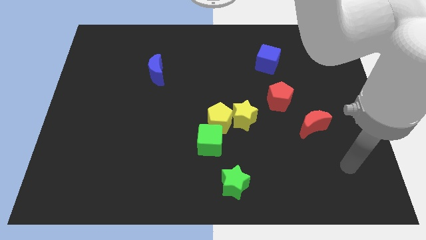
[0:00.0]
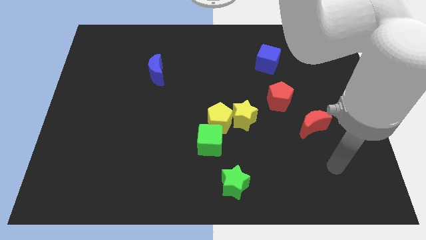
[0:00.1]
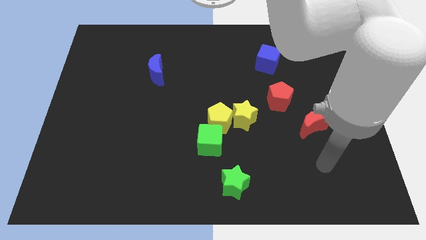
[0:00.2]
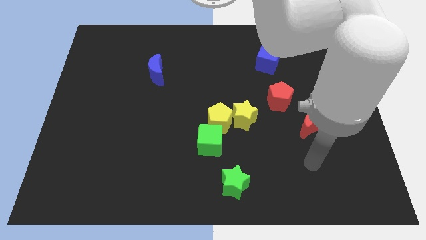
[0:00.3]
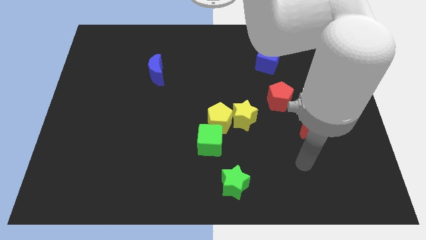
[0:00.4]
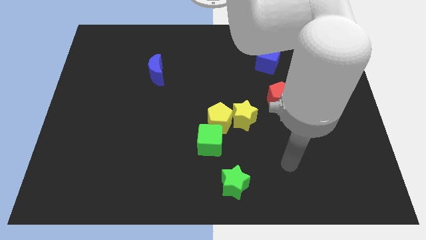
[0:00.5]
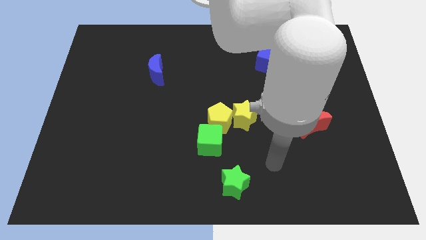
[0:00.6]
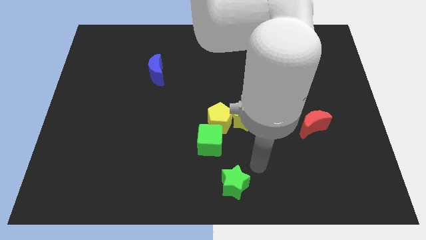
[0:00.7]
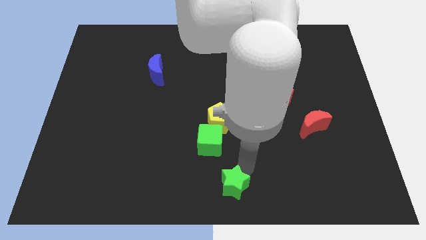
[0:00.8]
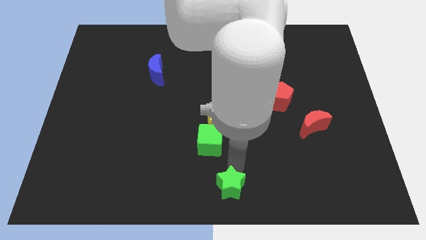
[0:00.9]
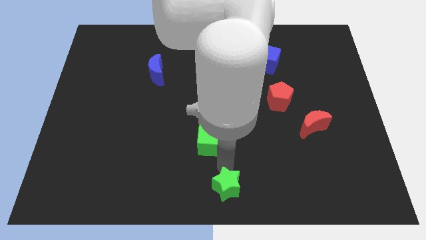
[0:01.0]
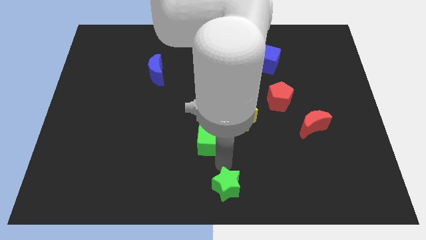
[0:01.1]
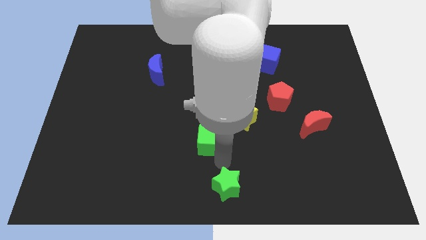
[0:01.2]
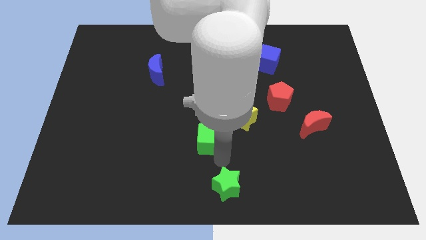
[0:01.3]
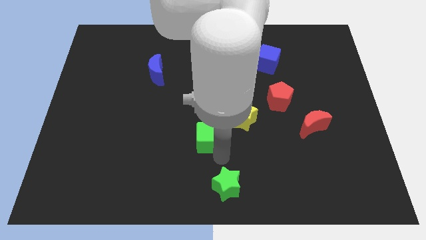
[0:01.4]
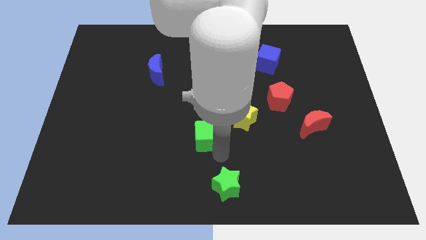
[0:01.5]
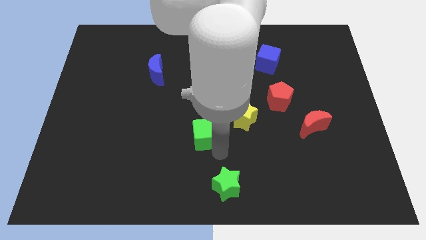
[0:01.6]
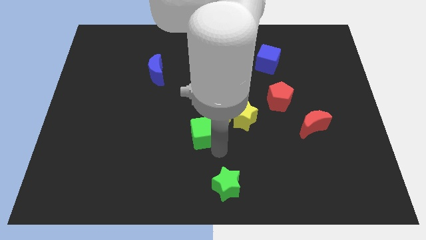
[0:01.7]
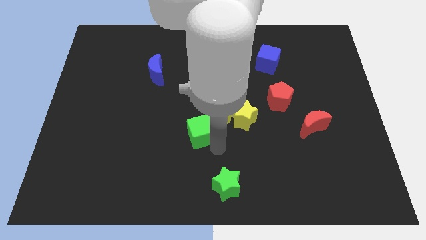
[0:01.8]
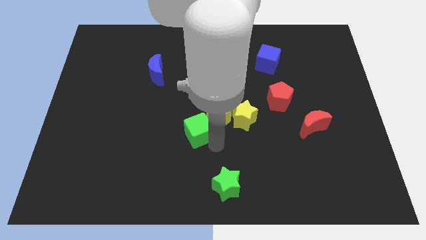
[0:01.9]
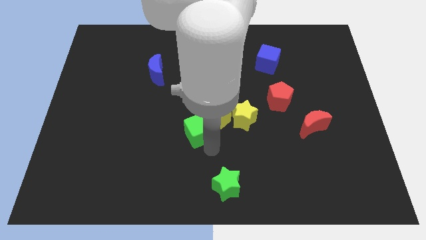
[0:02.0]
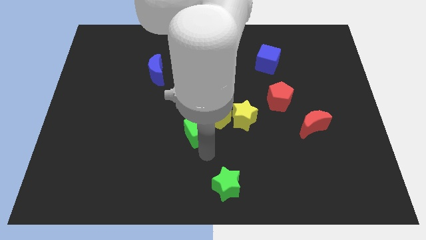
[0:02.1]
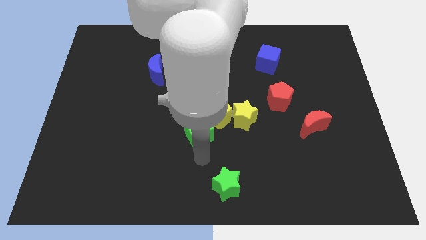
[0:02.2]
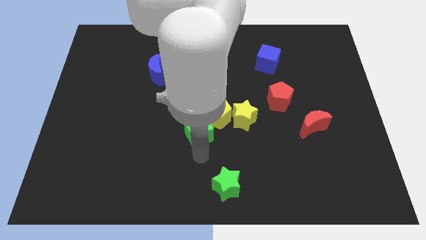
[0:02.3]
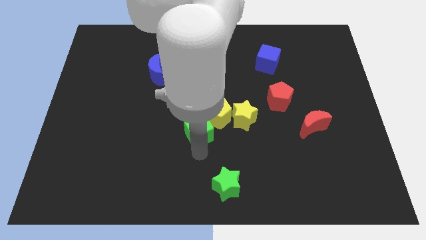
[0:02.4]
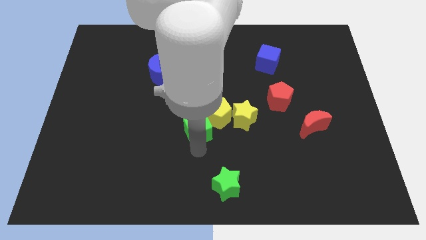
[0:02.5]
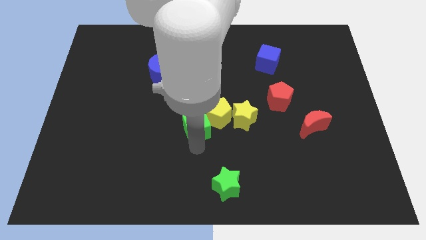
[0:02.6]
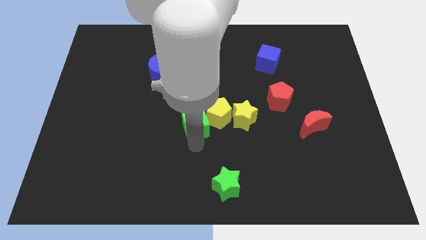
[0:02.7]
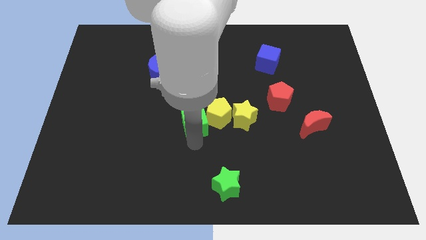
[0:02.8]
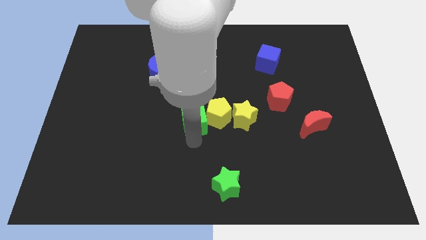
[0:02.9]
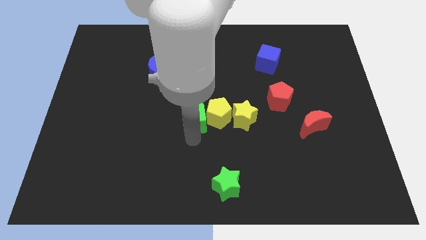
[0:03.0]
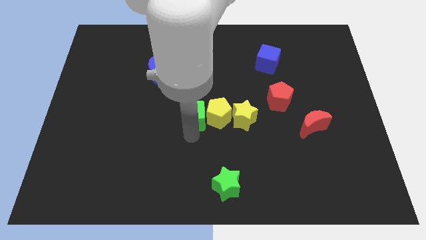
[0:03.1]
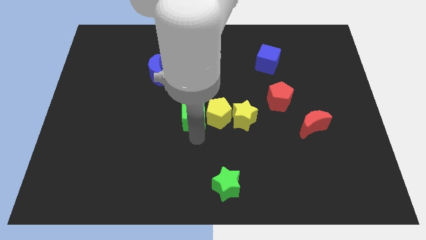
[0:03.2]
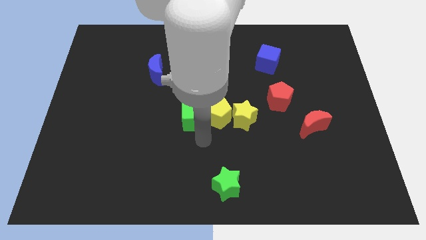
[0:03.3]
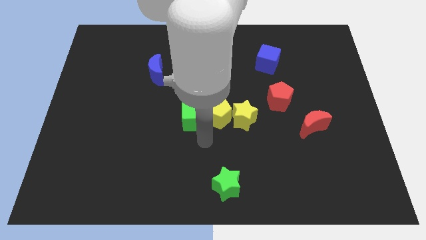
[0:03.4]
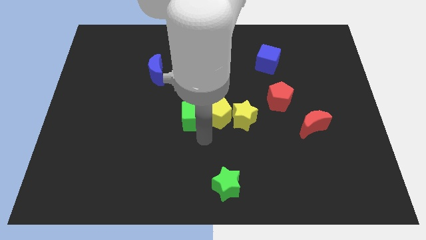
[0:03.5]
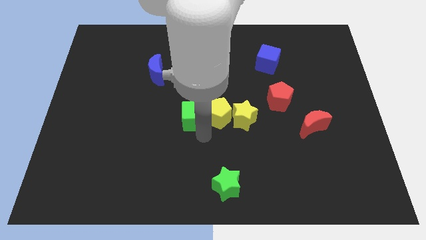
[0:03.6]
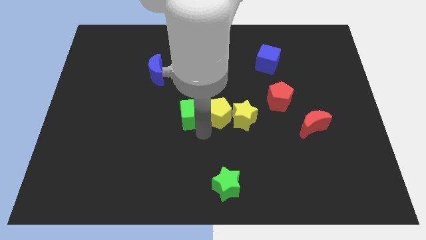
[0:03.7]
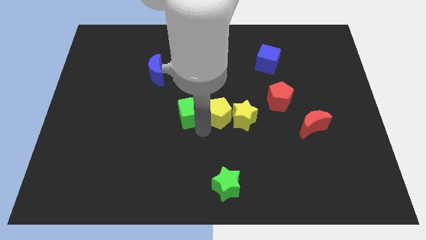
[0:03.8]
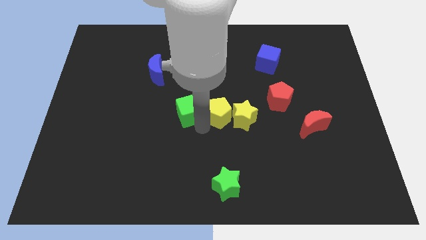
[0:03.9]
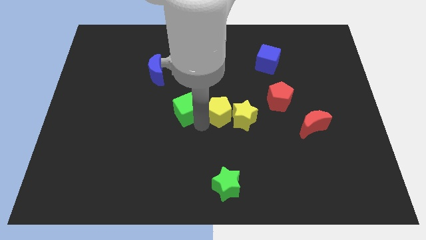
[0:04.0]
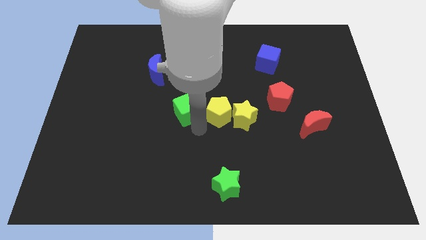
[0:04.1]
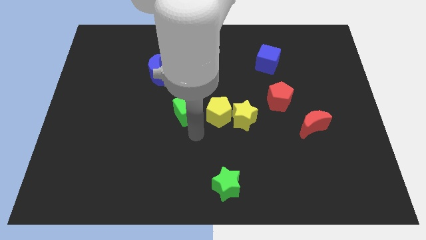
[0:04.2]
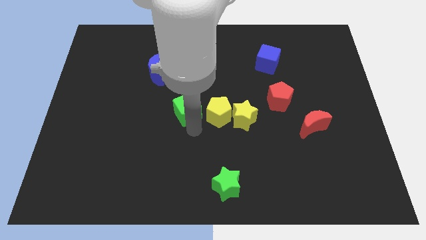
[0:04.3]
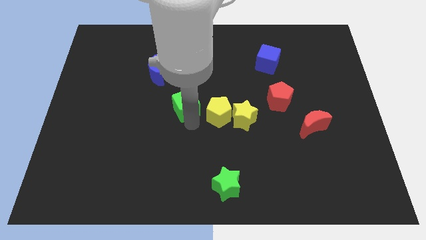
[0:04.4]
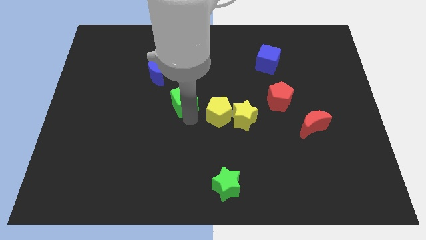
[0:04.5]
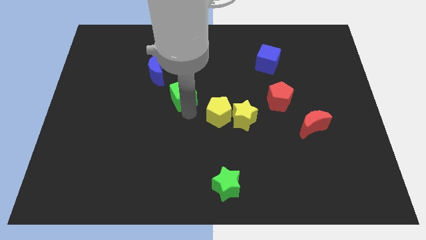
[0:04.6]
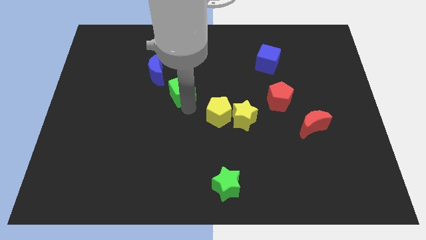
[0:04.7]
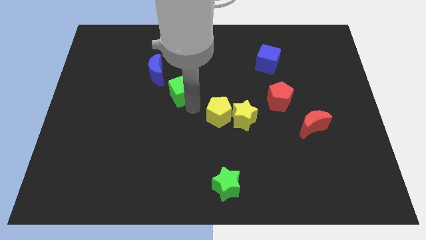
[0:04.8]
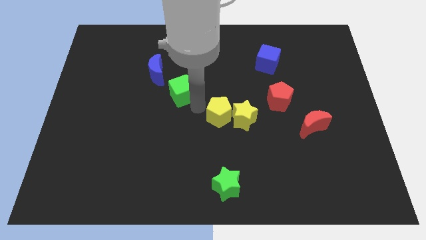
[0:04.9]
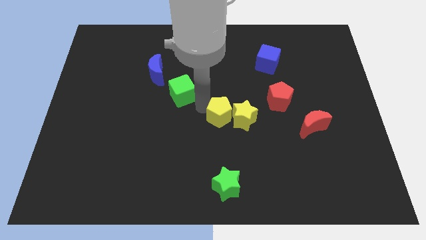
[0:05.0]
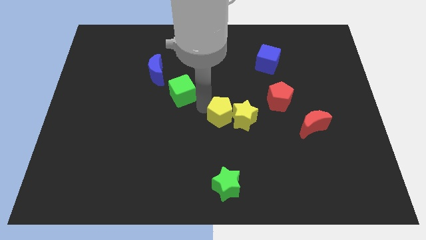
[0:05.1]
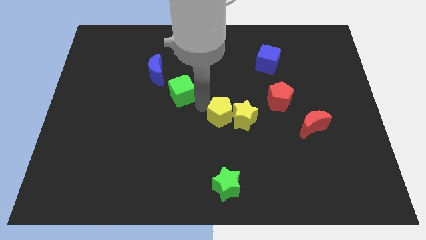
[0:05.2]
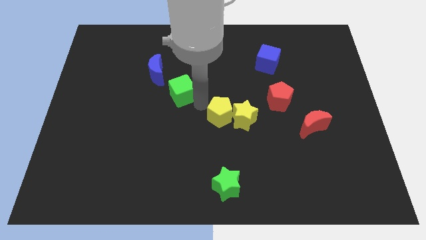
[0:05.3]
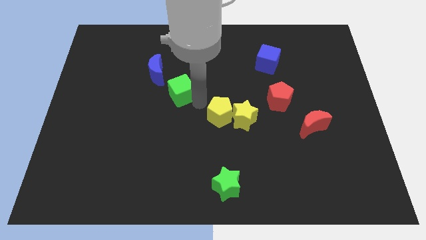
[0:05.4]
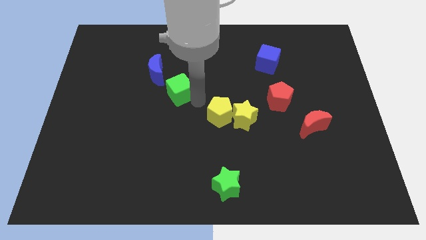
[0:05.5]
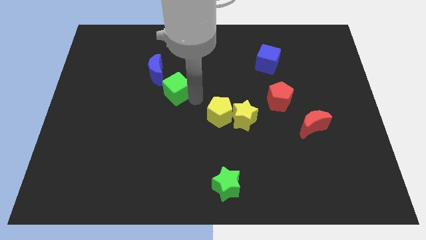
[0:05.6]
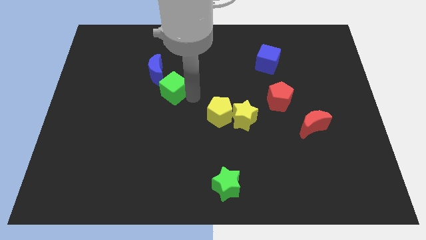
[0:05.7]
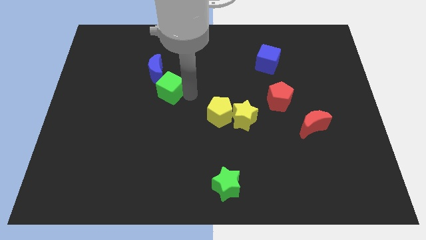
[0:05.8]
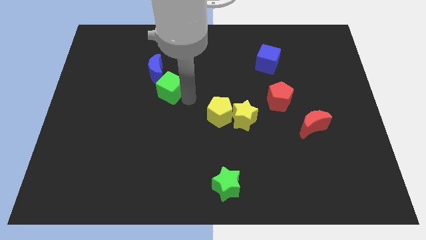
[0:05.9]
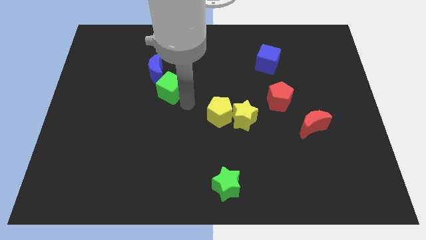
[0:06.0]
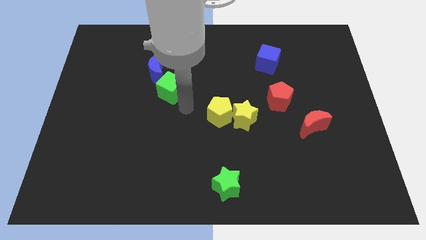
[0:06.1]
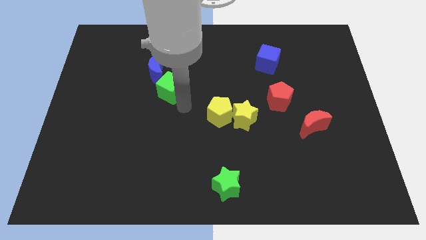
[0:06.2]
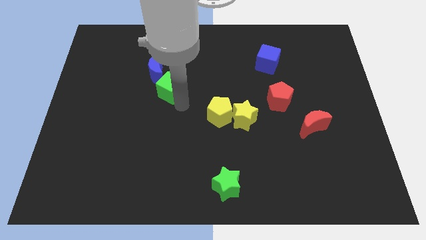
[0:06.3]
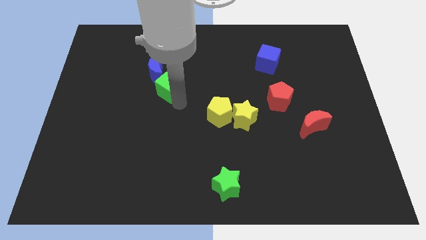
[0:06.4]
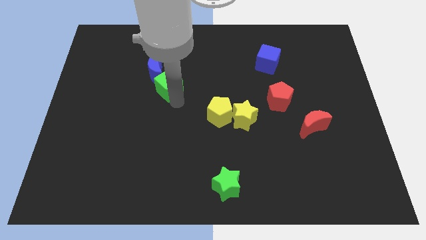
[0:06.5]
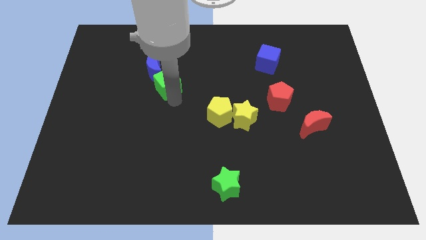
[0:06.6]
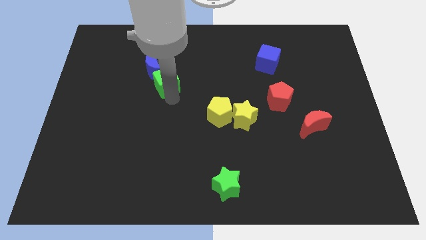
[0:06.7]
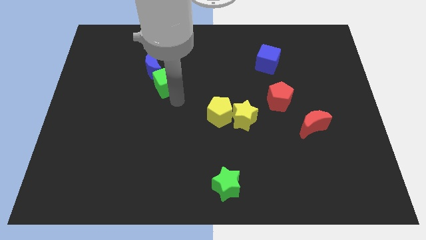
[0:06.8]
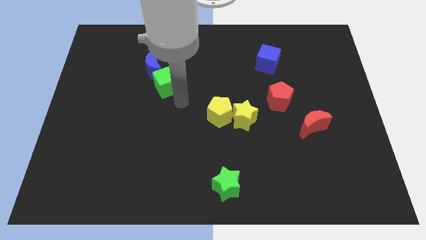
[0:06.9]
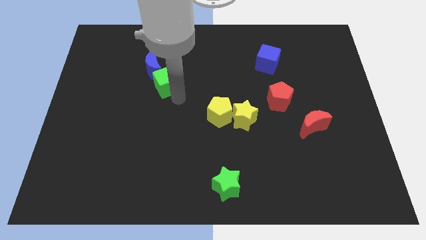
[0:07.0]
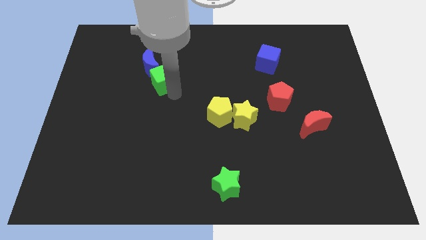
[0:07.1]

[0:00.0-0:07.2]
put the green cube towards the blue moon
